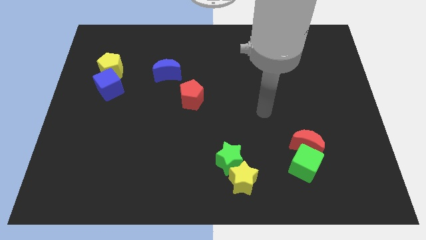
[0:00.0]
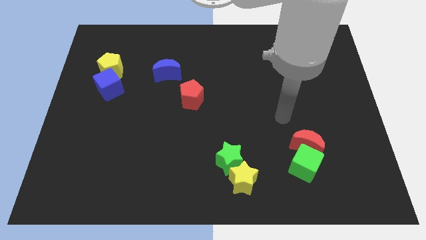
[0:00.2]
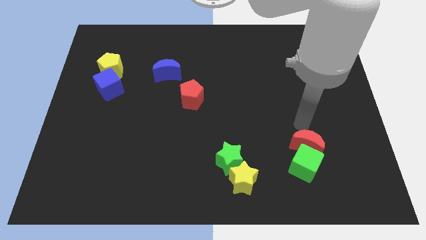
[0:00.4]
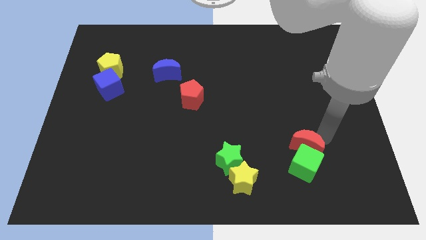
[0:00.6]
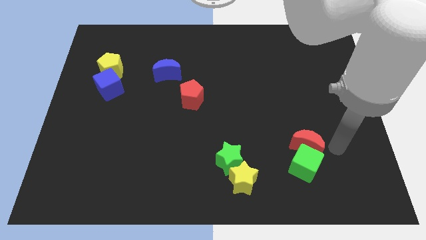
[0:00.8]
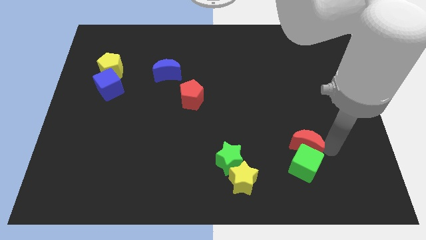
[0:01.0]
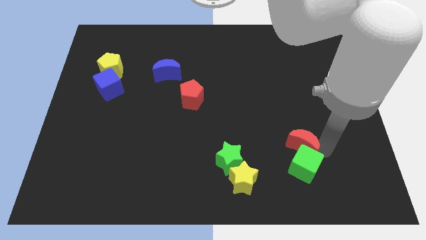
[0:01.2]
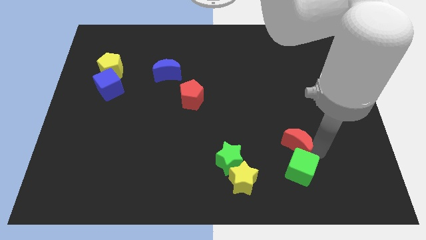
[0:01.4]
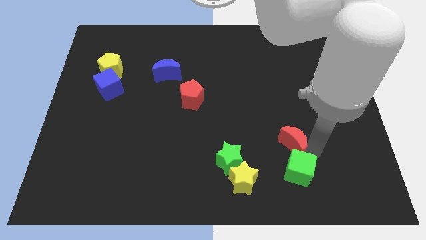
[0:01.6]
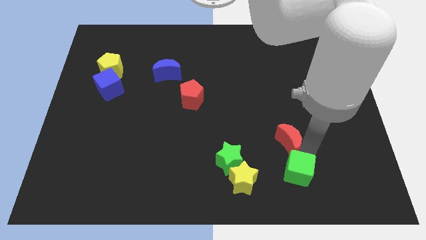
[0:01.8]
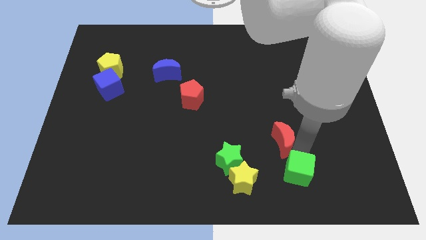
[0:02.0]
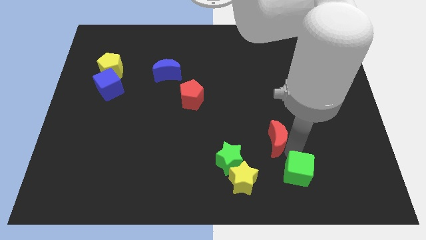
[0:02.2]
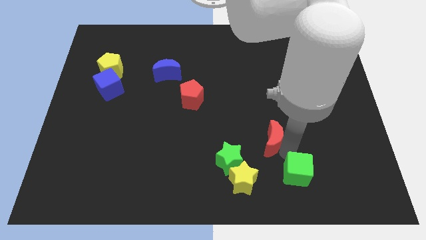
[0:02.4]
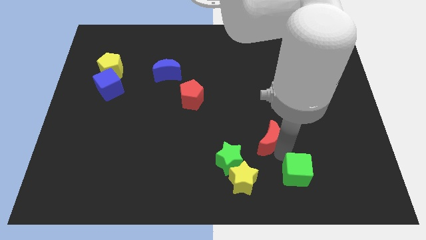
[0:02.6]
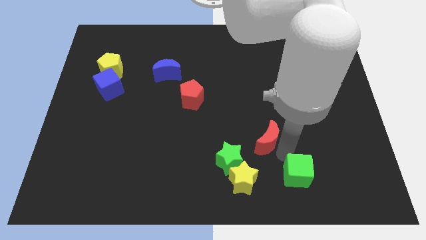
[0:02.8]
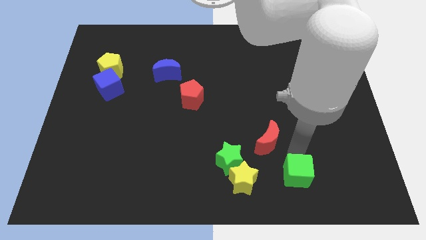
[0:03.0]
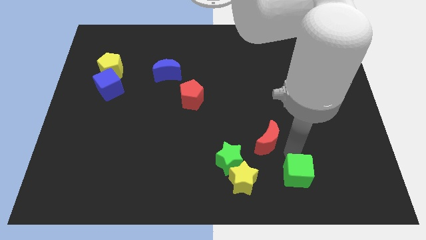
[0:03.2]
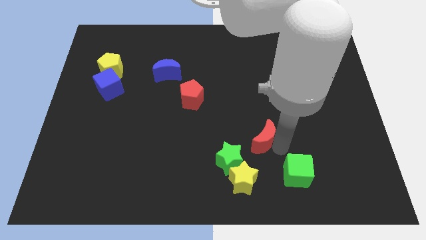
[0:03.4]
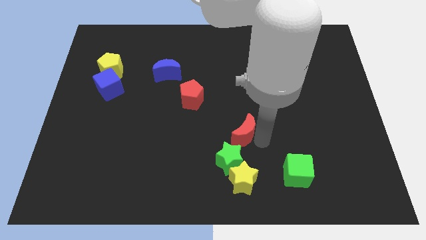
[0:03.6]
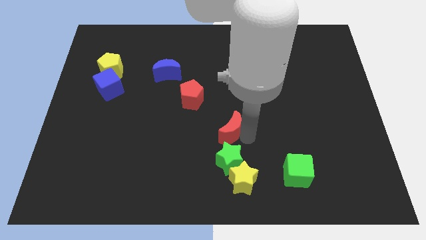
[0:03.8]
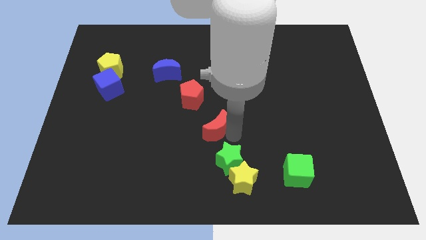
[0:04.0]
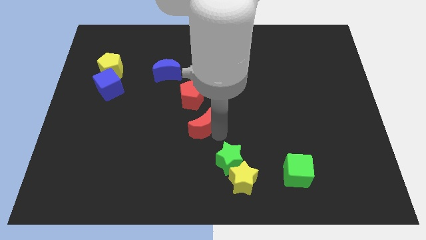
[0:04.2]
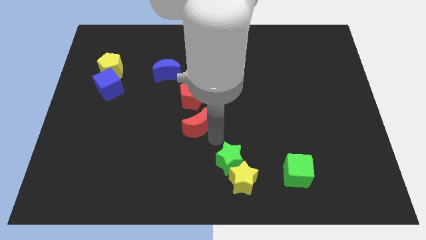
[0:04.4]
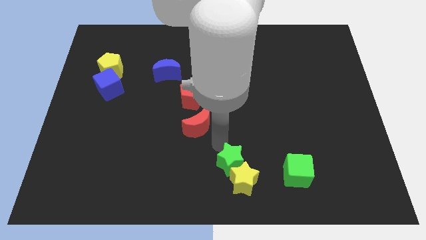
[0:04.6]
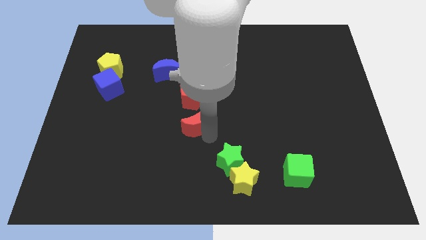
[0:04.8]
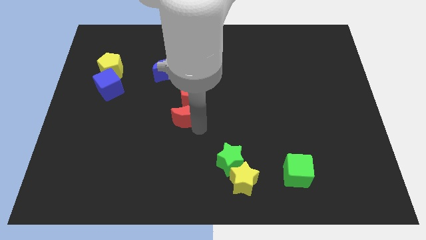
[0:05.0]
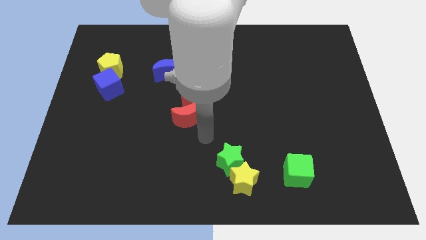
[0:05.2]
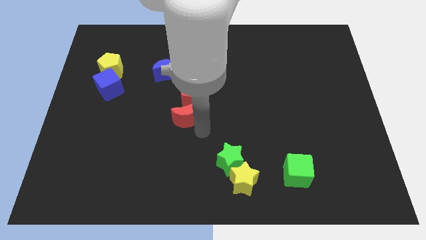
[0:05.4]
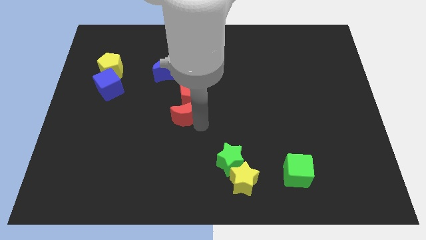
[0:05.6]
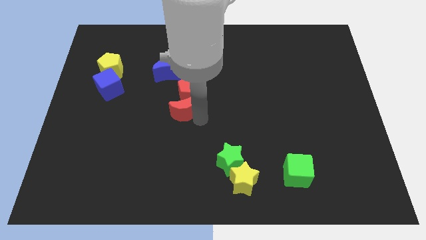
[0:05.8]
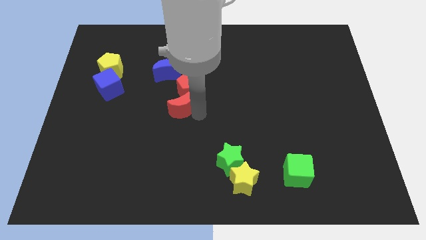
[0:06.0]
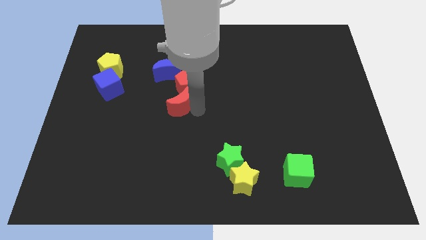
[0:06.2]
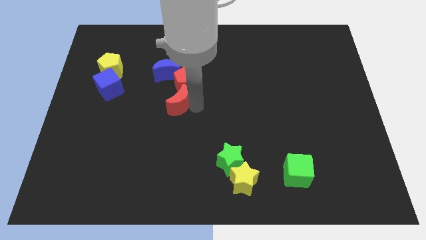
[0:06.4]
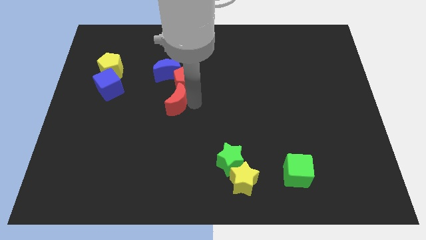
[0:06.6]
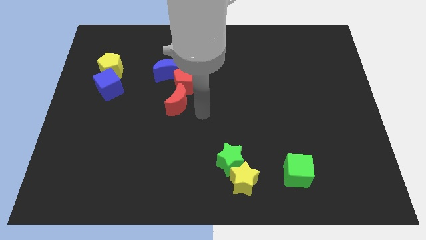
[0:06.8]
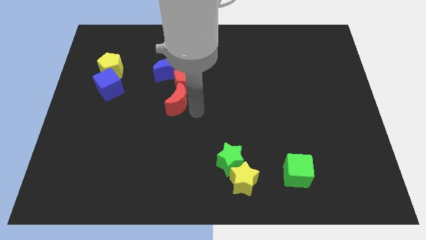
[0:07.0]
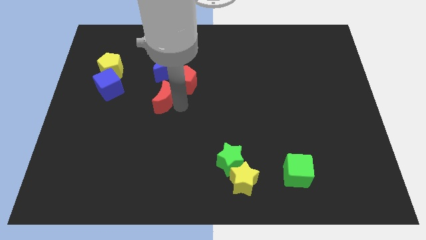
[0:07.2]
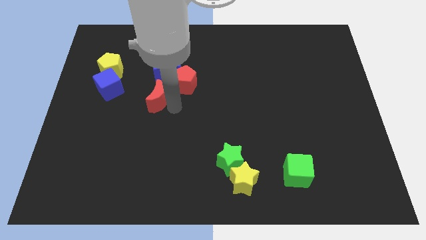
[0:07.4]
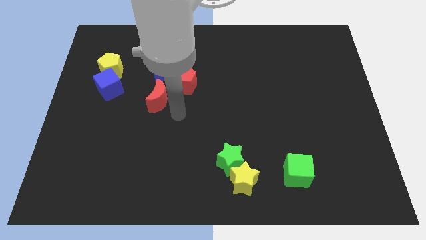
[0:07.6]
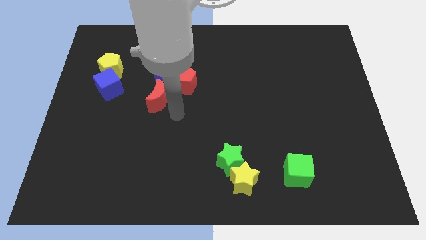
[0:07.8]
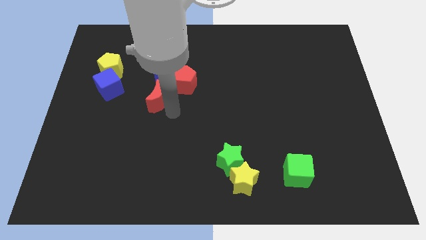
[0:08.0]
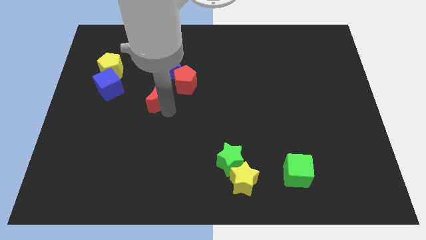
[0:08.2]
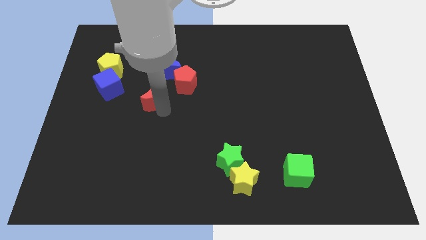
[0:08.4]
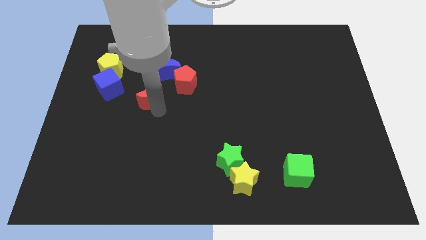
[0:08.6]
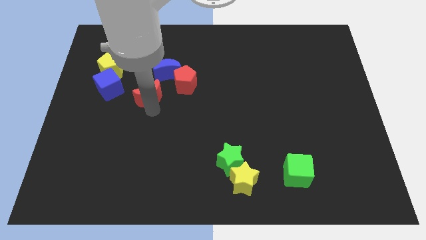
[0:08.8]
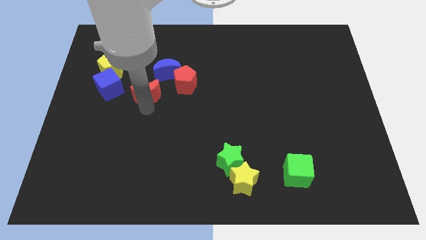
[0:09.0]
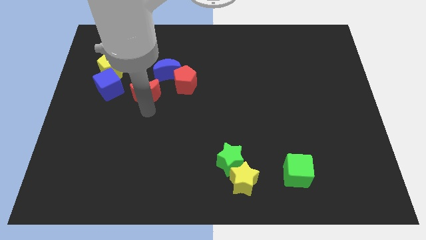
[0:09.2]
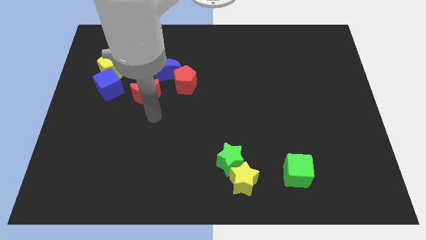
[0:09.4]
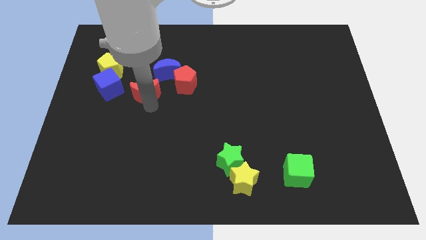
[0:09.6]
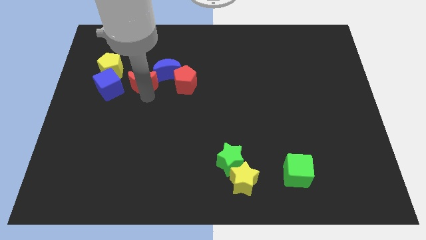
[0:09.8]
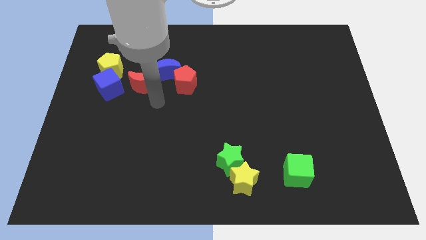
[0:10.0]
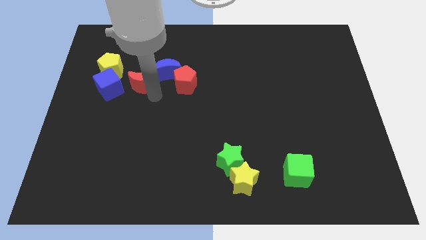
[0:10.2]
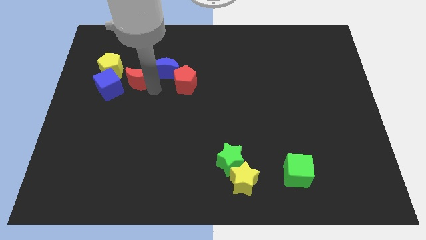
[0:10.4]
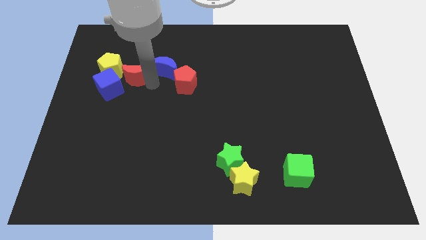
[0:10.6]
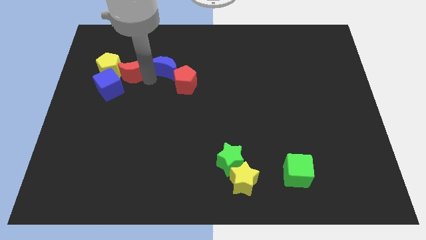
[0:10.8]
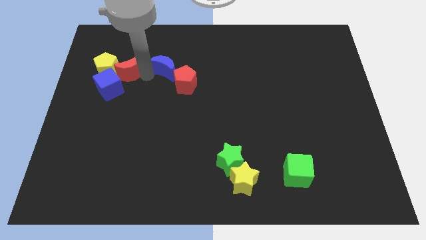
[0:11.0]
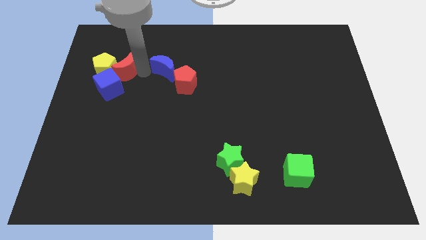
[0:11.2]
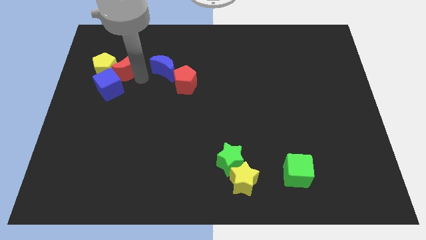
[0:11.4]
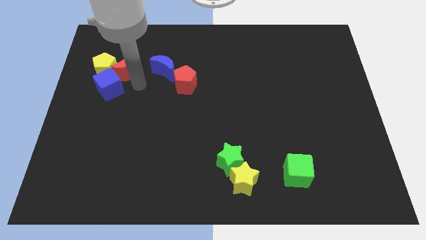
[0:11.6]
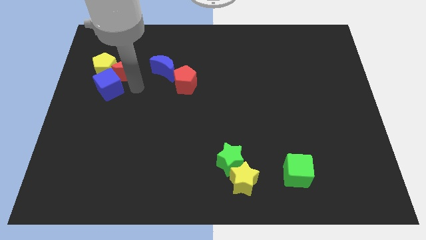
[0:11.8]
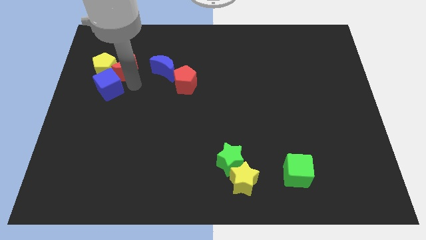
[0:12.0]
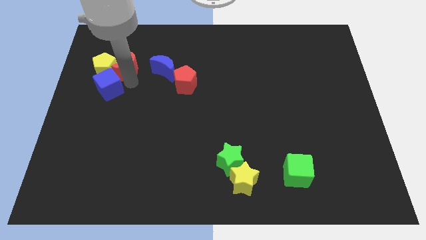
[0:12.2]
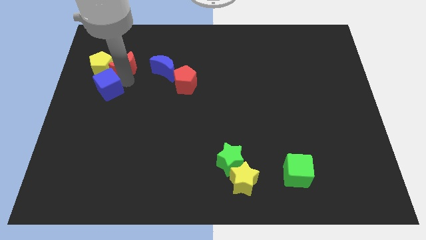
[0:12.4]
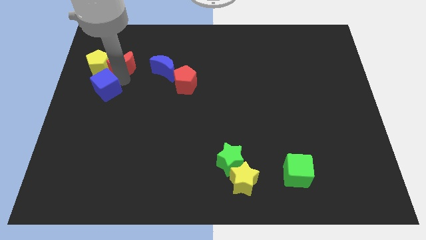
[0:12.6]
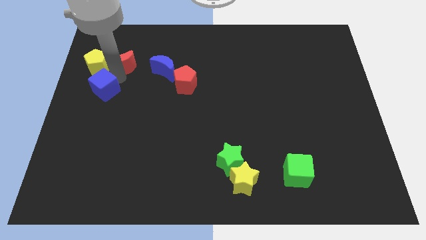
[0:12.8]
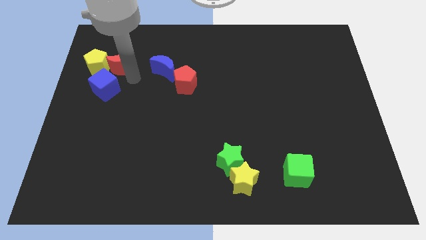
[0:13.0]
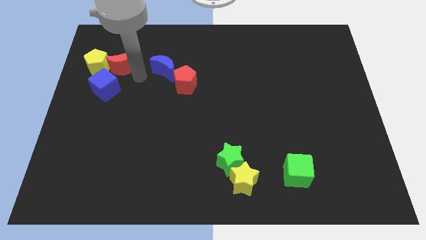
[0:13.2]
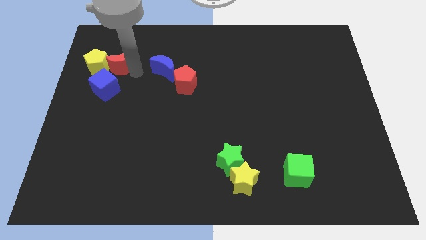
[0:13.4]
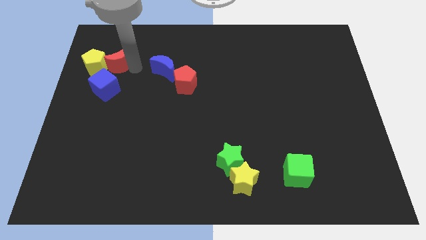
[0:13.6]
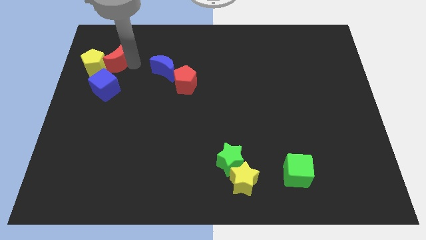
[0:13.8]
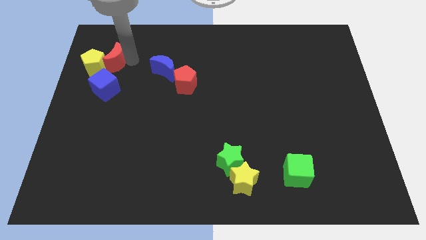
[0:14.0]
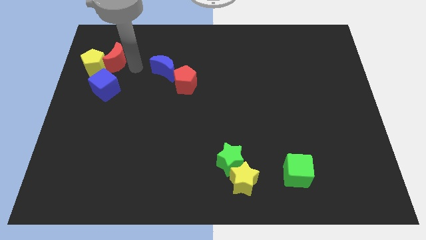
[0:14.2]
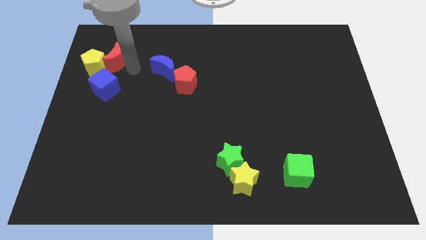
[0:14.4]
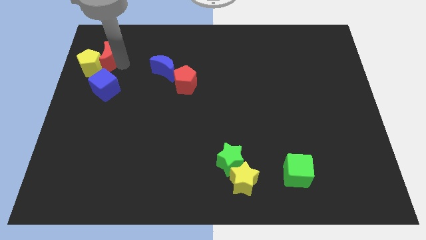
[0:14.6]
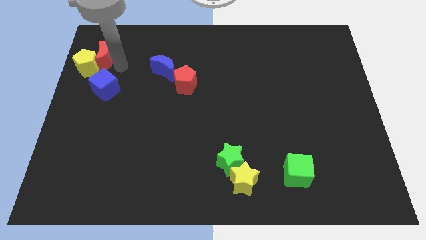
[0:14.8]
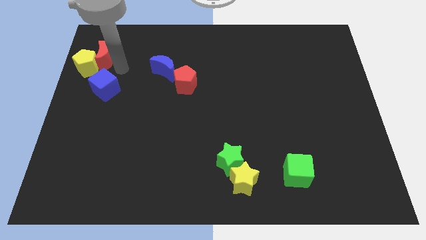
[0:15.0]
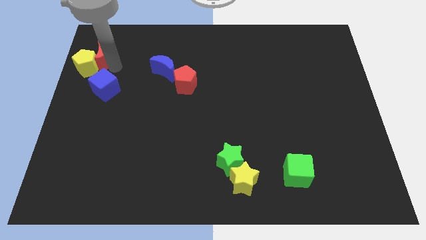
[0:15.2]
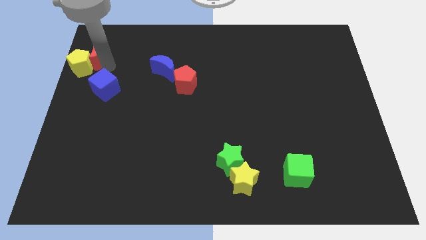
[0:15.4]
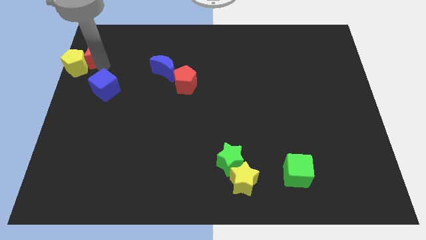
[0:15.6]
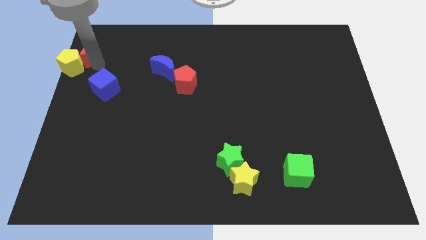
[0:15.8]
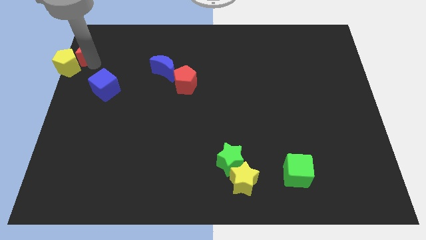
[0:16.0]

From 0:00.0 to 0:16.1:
push the red moon to the top left corner
